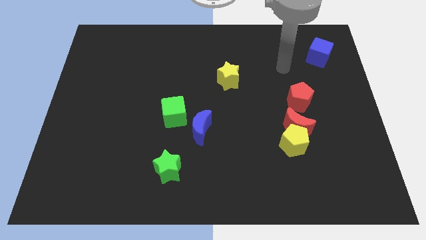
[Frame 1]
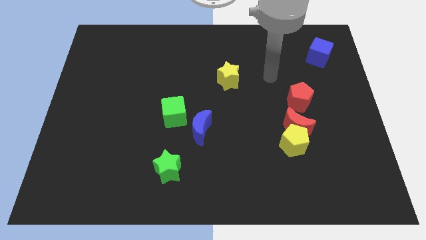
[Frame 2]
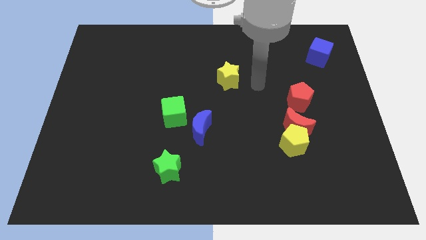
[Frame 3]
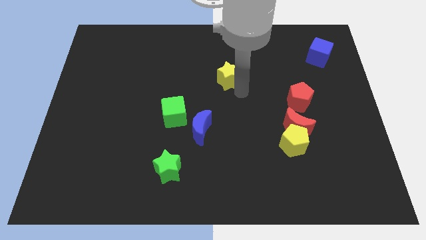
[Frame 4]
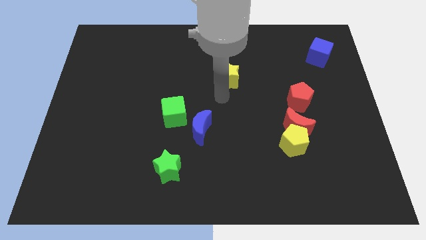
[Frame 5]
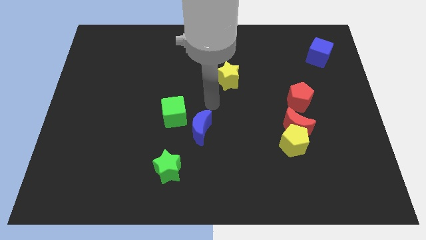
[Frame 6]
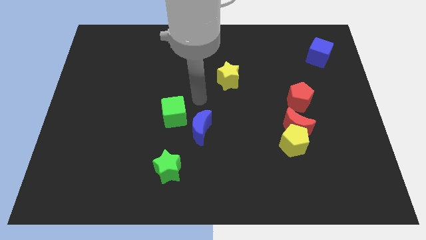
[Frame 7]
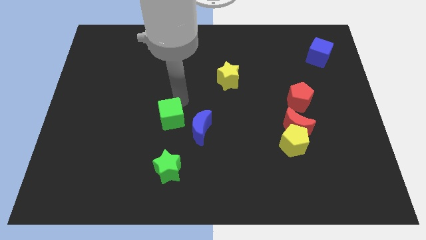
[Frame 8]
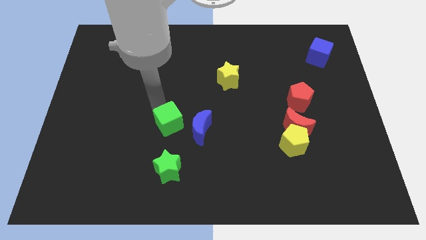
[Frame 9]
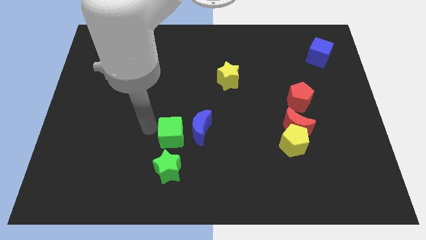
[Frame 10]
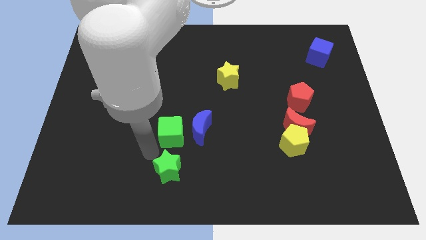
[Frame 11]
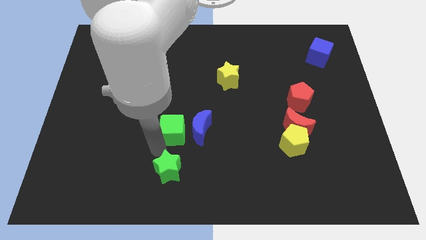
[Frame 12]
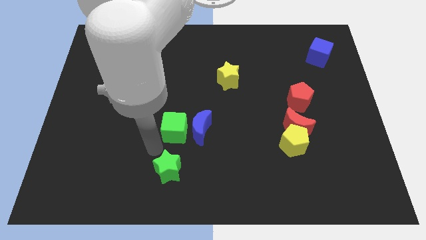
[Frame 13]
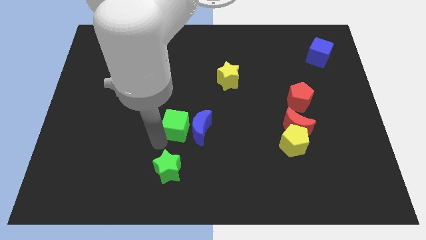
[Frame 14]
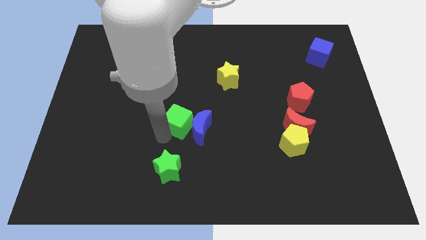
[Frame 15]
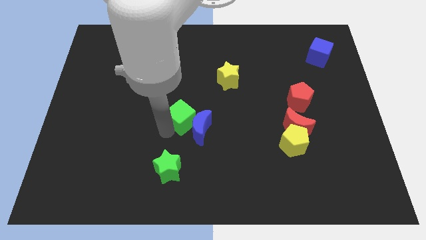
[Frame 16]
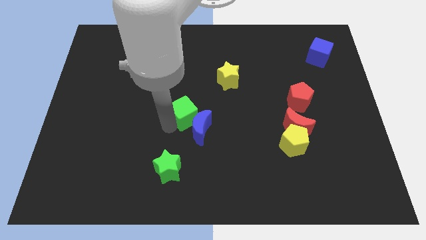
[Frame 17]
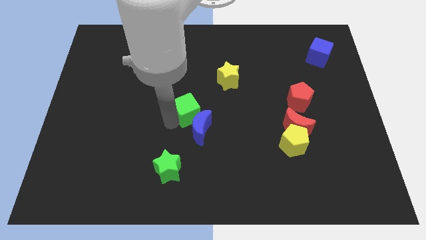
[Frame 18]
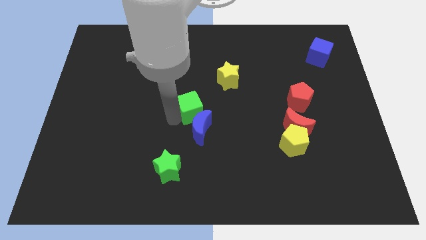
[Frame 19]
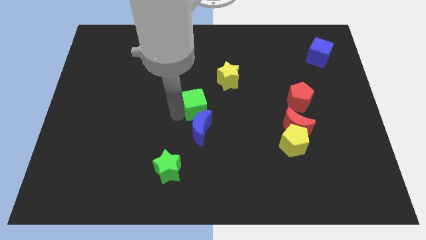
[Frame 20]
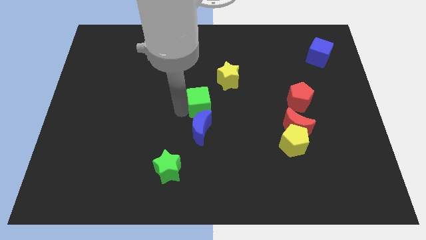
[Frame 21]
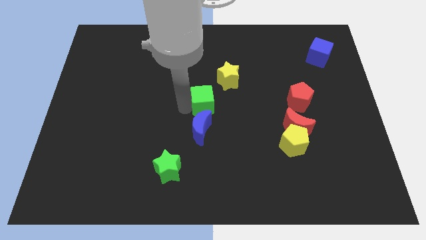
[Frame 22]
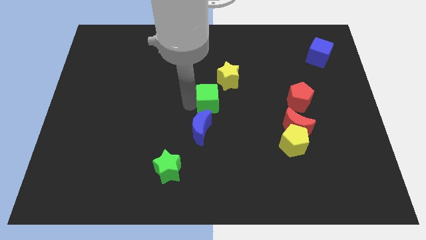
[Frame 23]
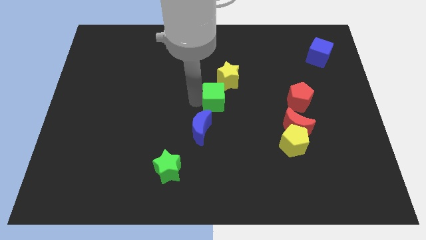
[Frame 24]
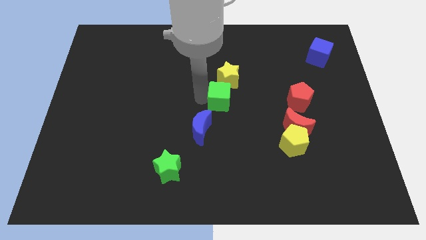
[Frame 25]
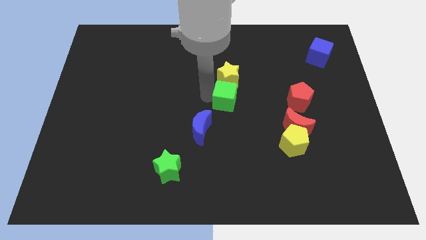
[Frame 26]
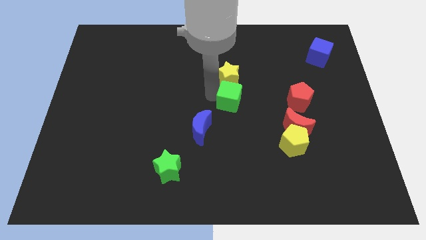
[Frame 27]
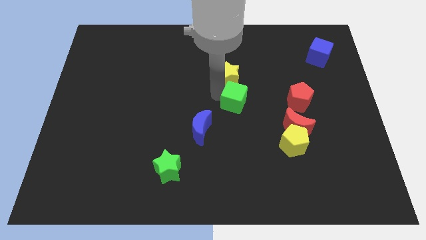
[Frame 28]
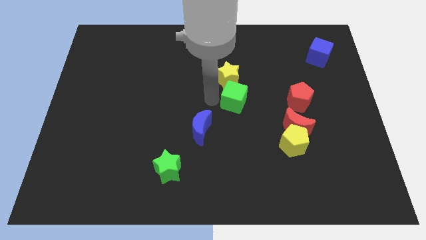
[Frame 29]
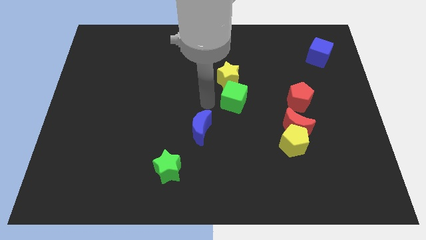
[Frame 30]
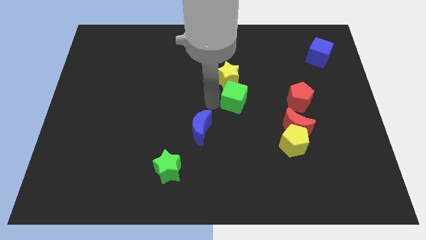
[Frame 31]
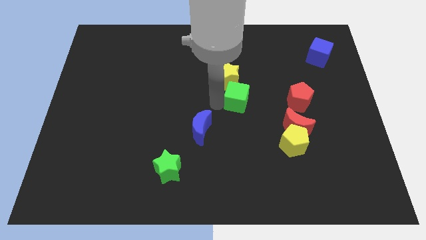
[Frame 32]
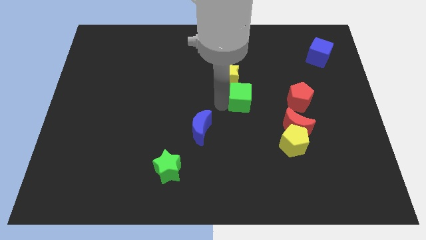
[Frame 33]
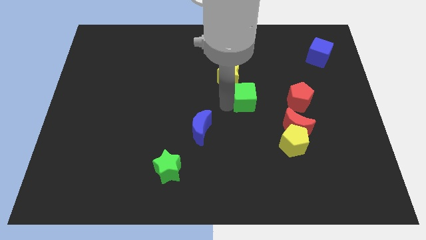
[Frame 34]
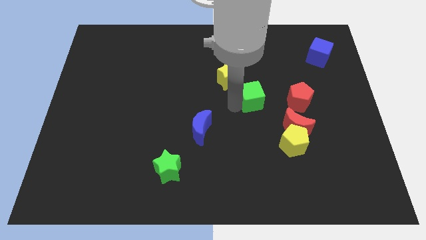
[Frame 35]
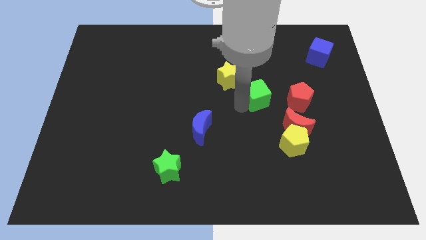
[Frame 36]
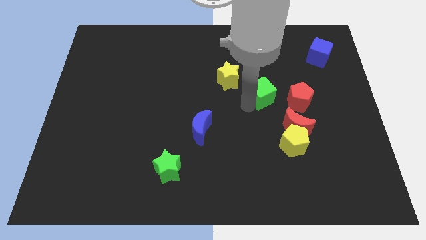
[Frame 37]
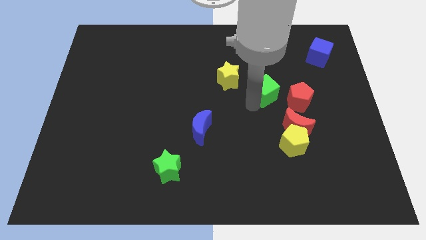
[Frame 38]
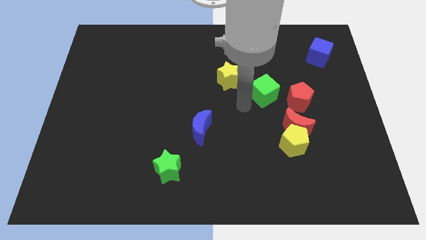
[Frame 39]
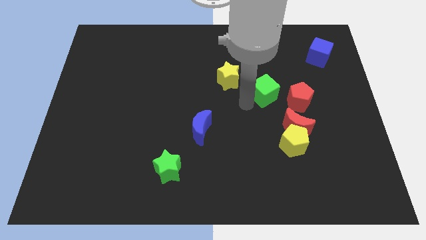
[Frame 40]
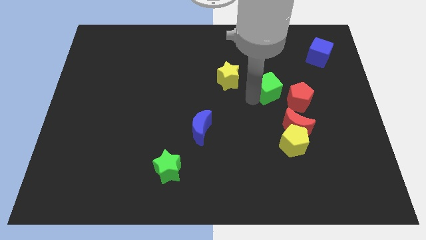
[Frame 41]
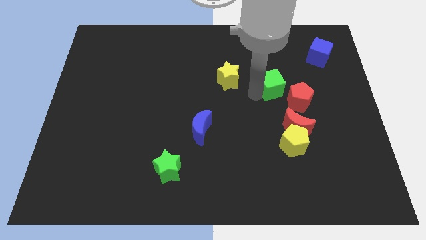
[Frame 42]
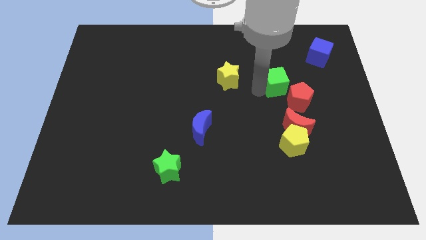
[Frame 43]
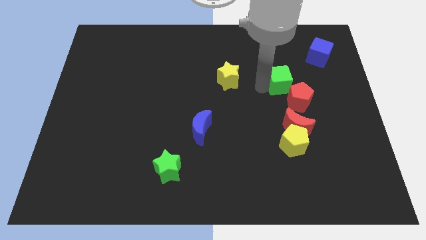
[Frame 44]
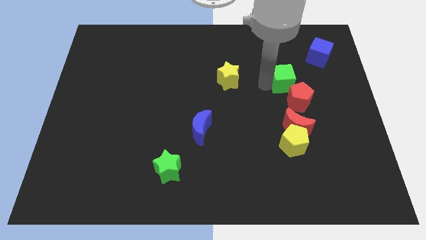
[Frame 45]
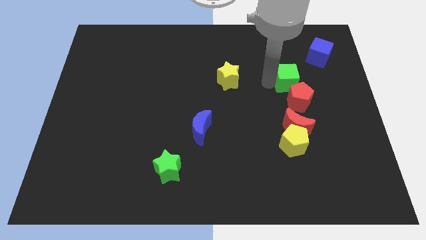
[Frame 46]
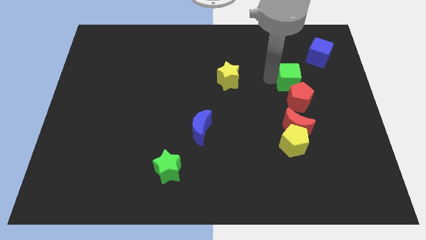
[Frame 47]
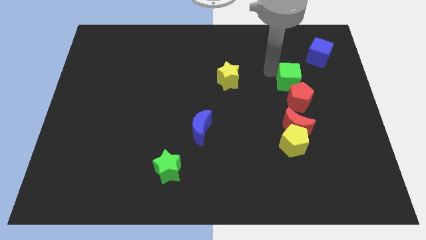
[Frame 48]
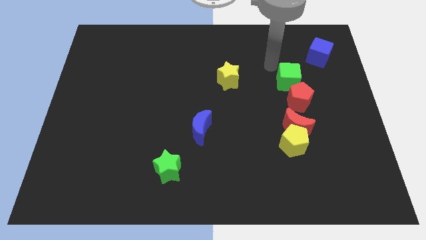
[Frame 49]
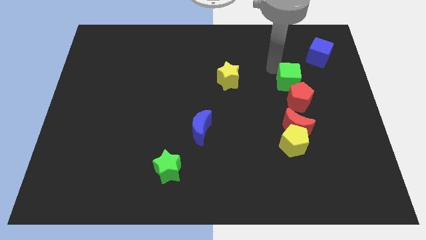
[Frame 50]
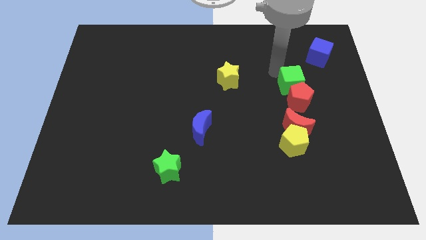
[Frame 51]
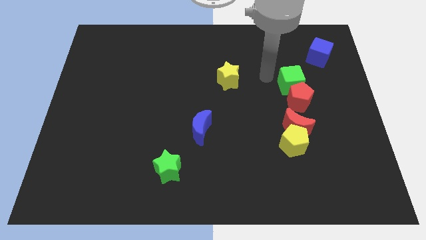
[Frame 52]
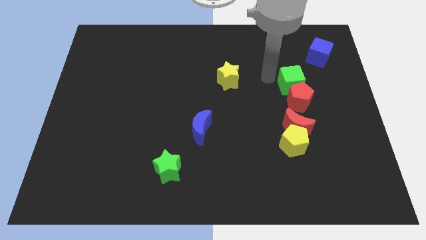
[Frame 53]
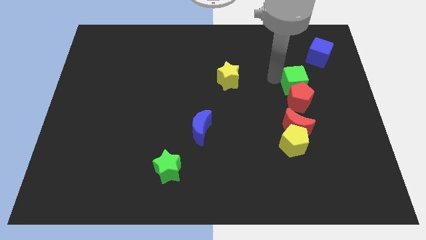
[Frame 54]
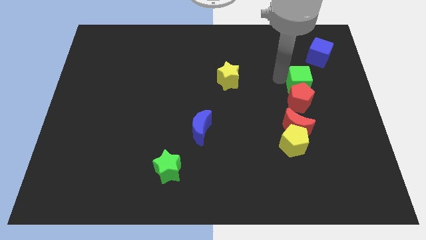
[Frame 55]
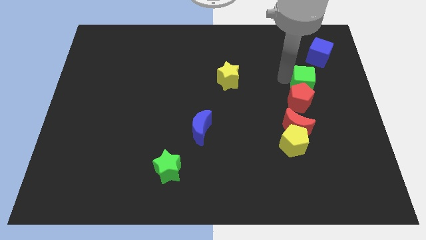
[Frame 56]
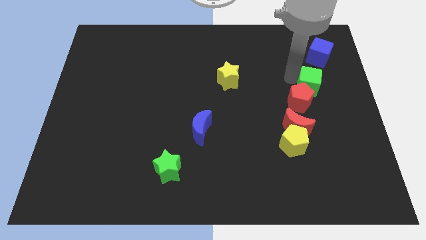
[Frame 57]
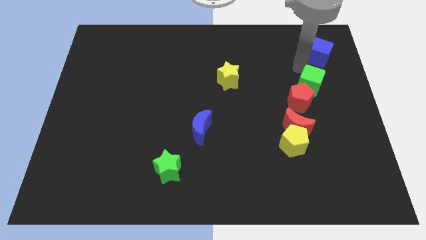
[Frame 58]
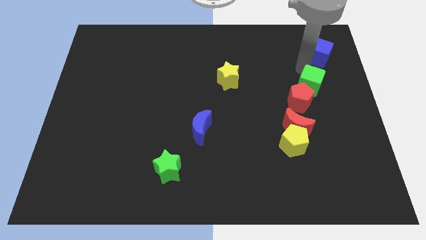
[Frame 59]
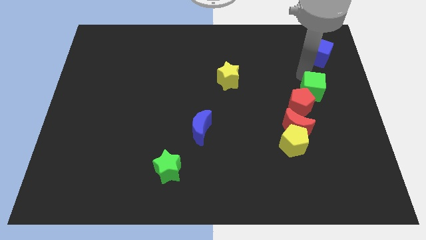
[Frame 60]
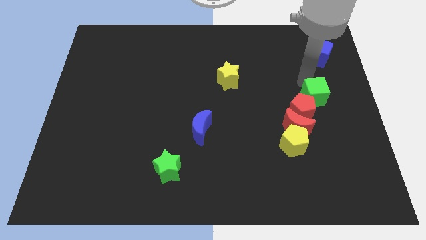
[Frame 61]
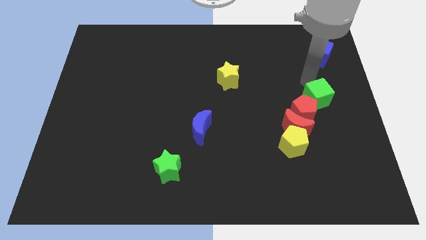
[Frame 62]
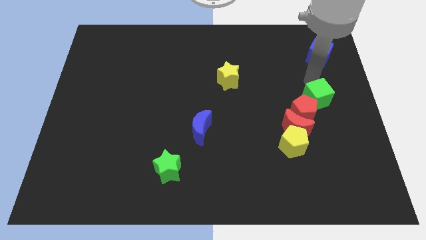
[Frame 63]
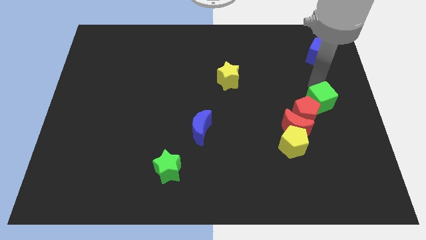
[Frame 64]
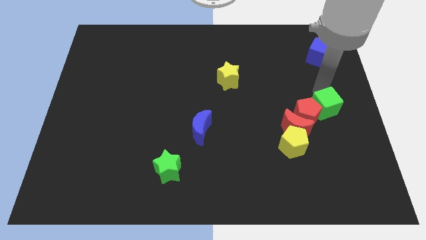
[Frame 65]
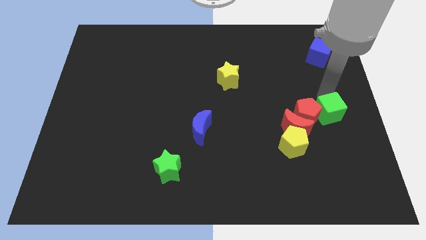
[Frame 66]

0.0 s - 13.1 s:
move the green cube diagonally down and to the right of the red pentagon
